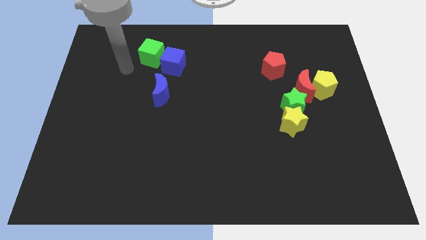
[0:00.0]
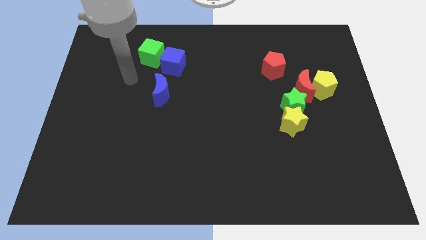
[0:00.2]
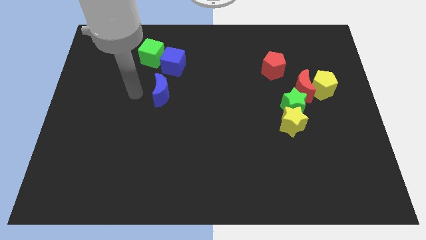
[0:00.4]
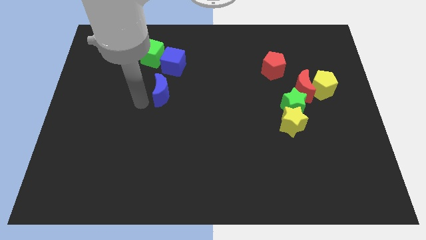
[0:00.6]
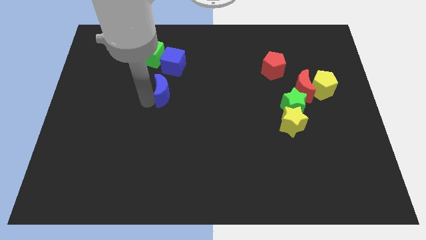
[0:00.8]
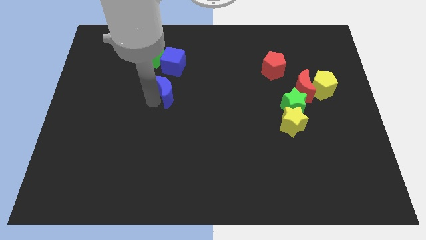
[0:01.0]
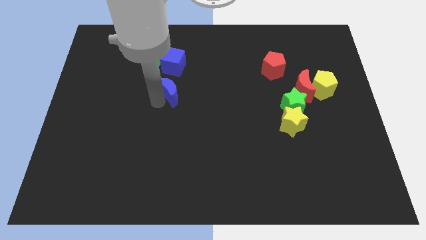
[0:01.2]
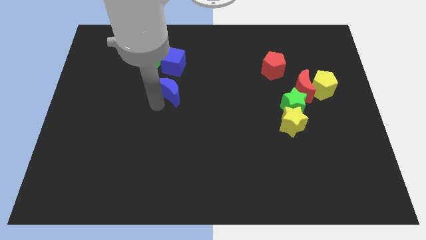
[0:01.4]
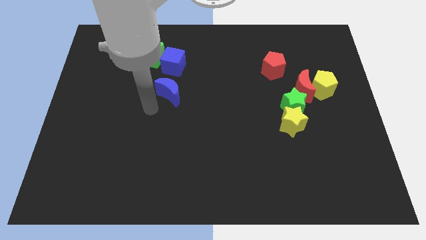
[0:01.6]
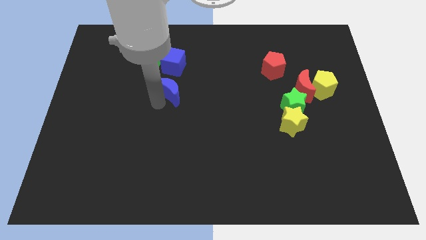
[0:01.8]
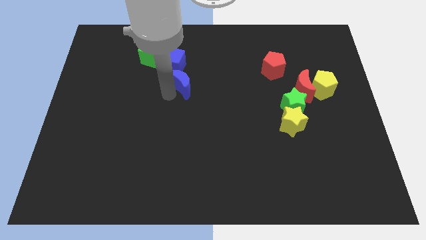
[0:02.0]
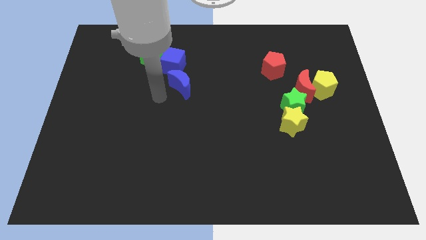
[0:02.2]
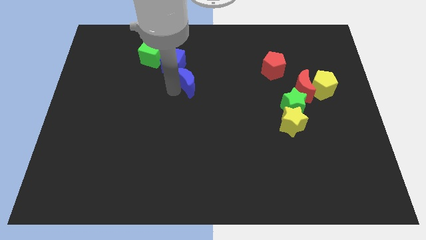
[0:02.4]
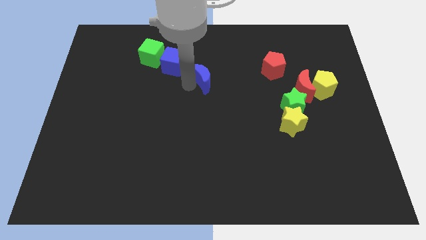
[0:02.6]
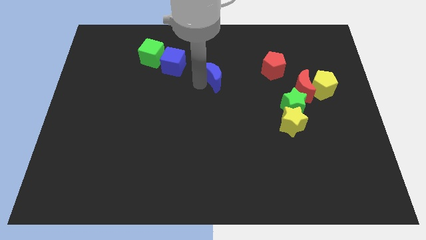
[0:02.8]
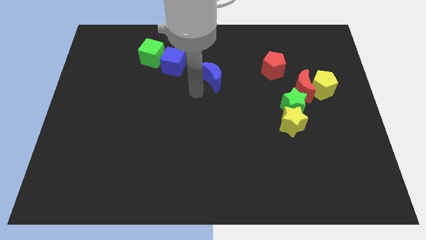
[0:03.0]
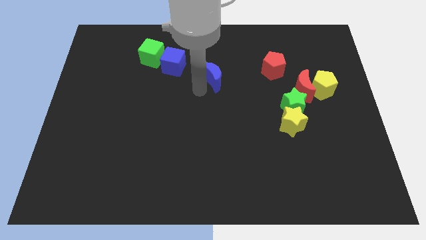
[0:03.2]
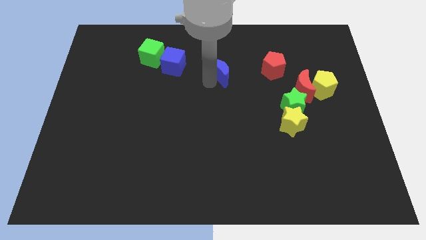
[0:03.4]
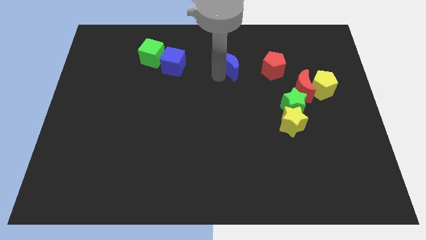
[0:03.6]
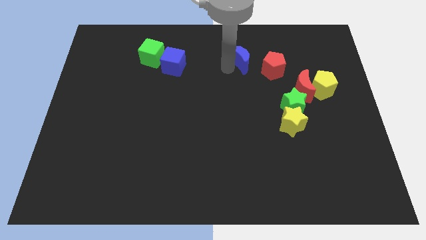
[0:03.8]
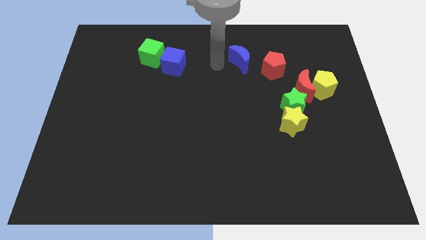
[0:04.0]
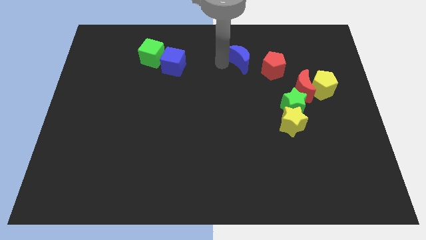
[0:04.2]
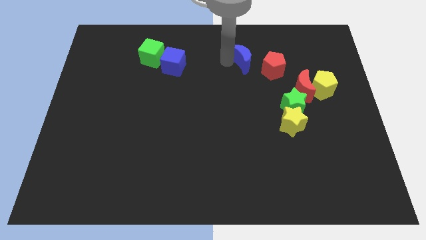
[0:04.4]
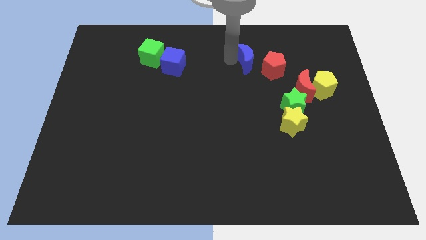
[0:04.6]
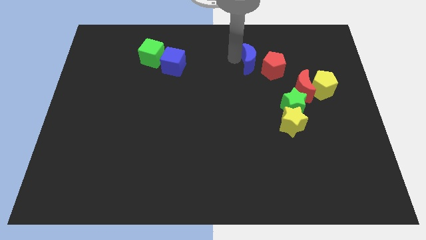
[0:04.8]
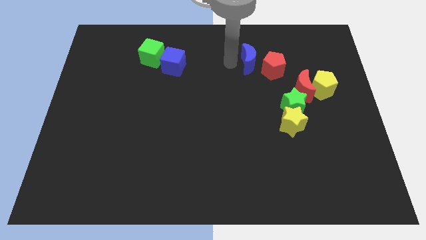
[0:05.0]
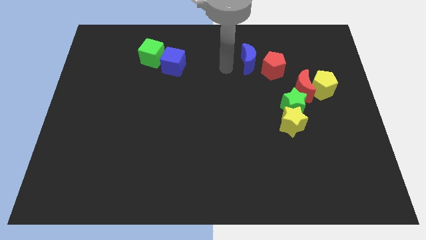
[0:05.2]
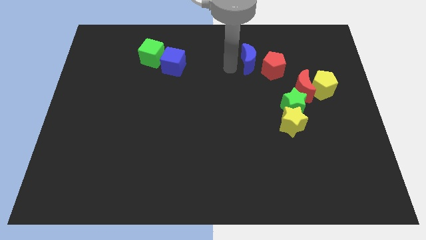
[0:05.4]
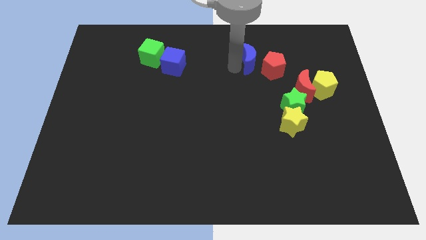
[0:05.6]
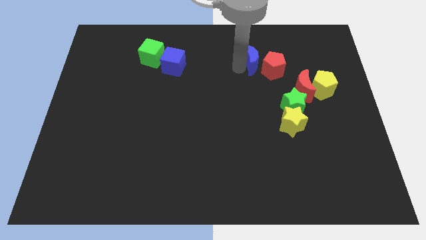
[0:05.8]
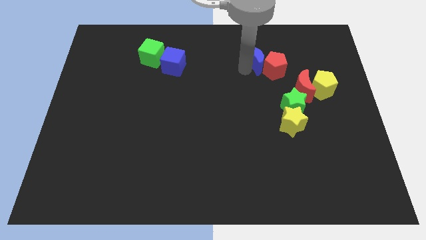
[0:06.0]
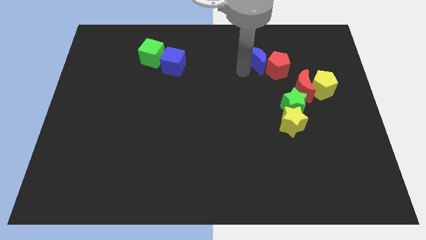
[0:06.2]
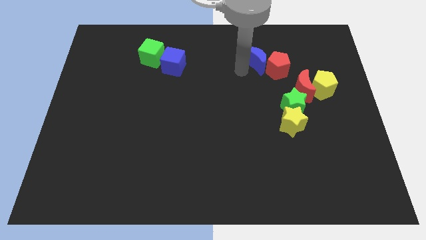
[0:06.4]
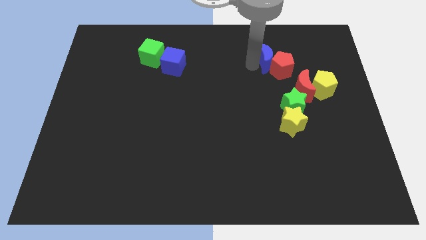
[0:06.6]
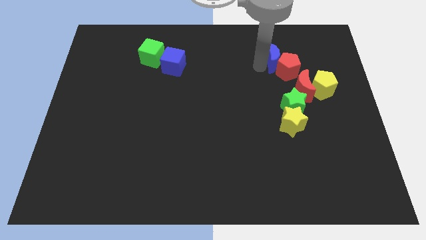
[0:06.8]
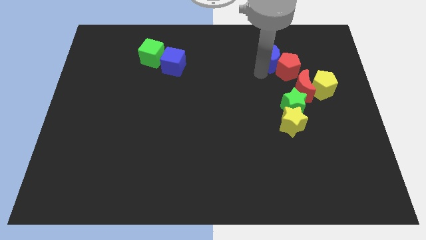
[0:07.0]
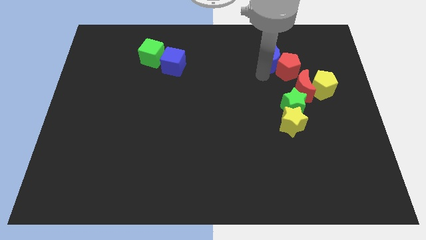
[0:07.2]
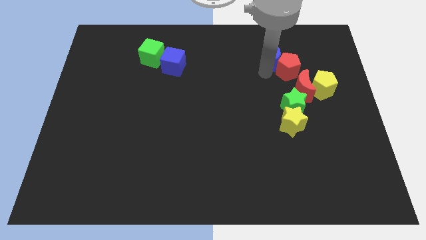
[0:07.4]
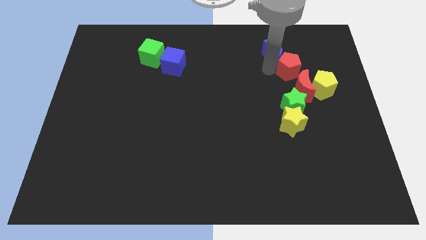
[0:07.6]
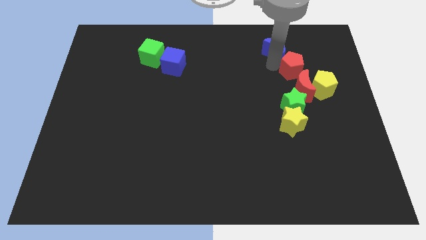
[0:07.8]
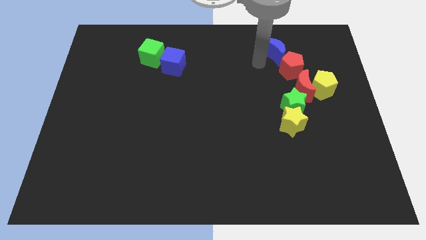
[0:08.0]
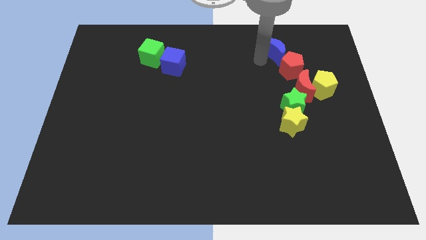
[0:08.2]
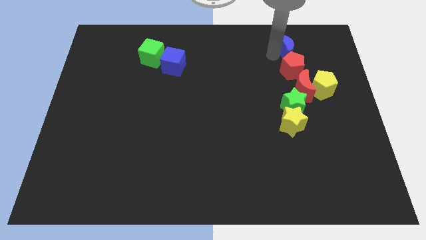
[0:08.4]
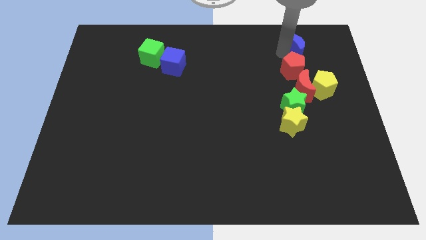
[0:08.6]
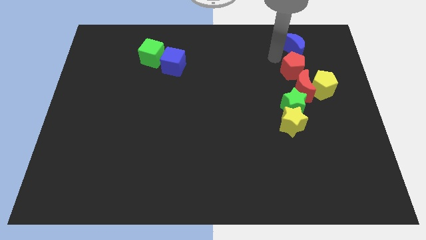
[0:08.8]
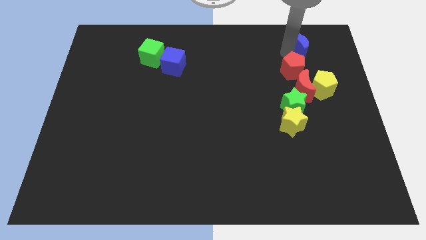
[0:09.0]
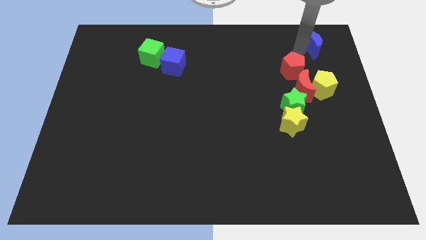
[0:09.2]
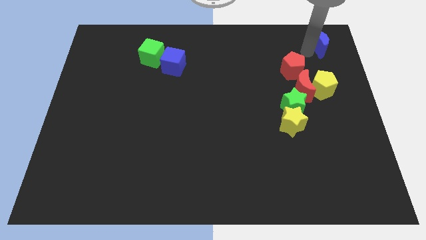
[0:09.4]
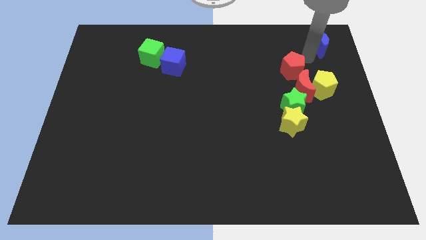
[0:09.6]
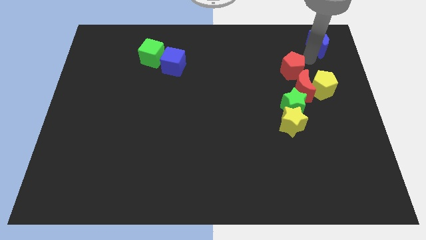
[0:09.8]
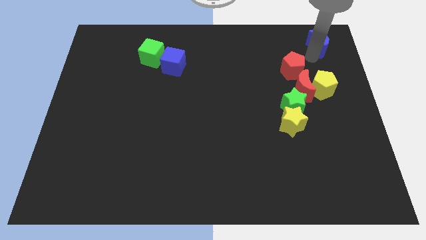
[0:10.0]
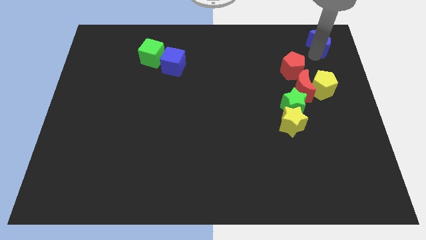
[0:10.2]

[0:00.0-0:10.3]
put the blue moon to the upper right corner

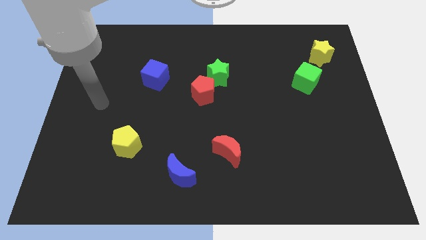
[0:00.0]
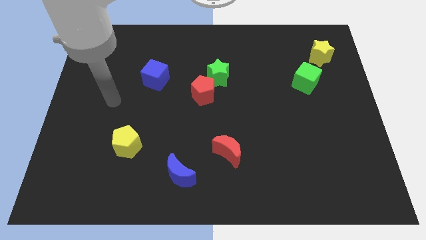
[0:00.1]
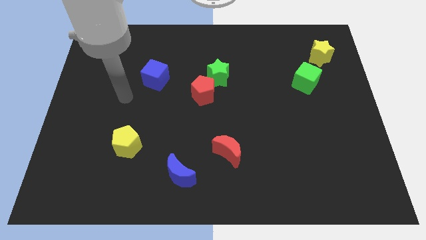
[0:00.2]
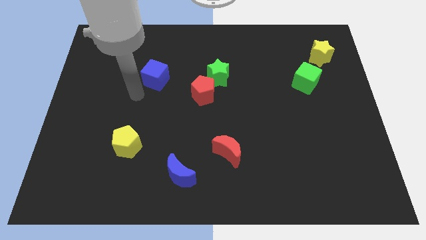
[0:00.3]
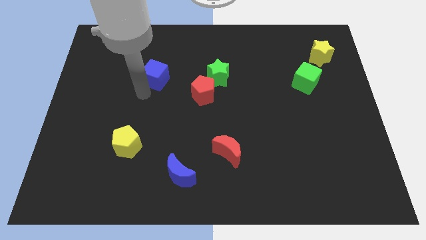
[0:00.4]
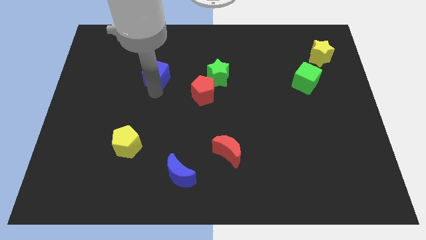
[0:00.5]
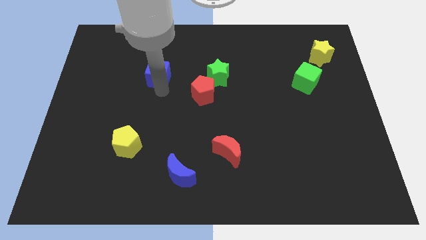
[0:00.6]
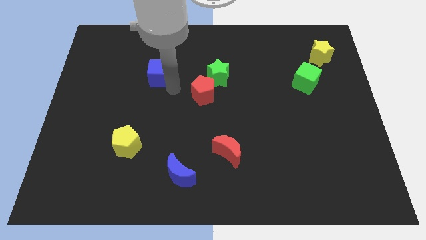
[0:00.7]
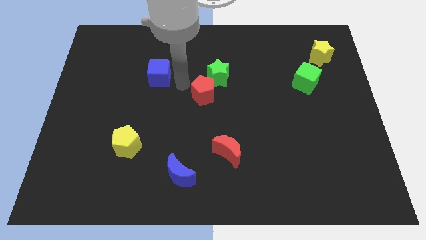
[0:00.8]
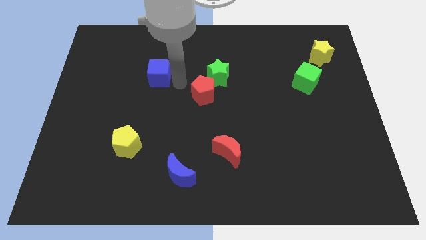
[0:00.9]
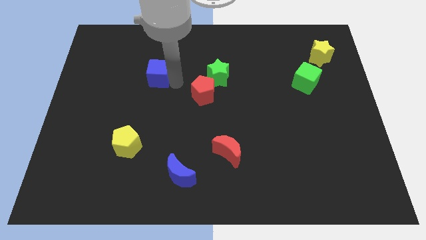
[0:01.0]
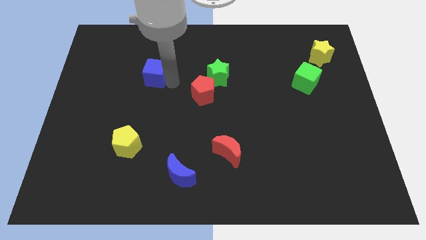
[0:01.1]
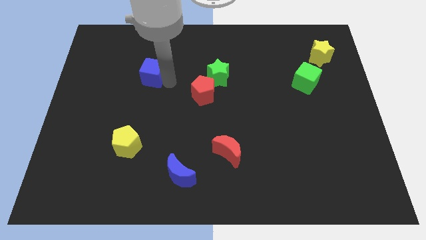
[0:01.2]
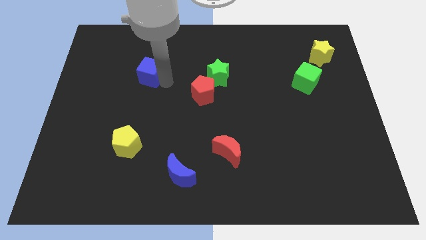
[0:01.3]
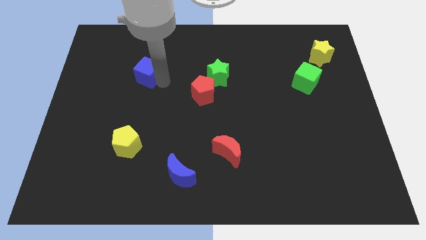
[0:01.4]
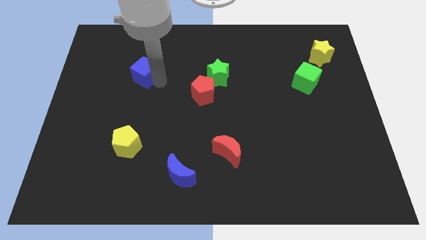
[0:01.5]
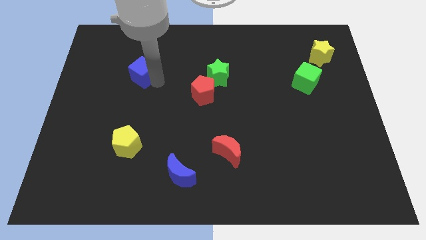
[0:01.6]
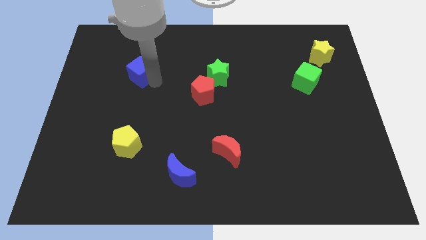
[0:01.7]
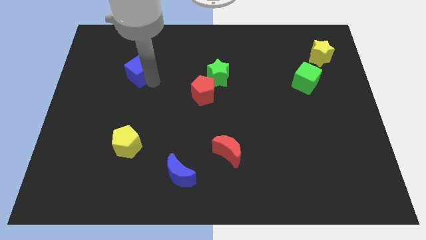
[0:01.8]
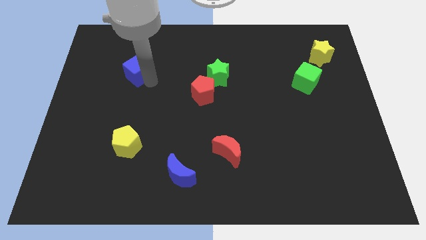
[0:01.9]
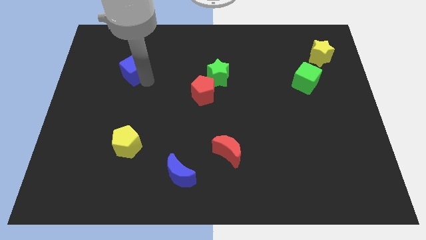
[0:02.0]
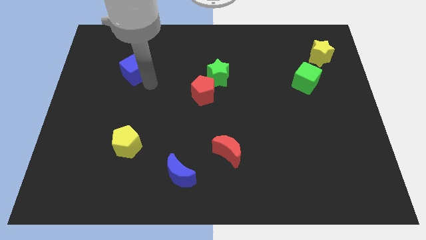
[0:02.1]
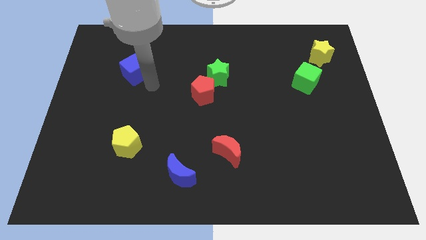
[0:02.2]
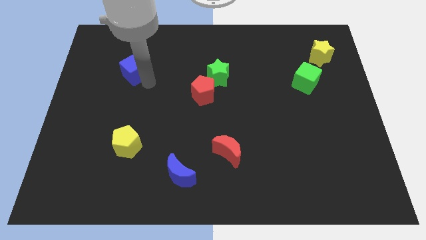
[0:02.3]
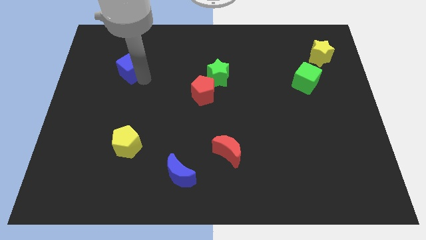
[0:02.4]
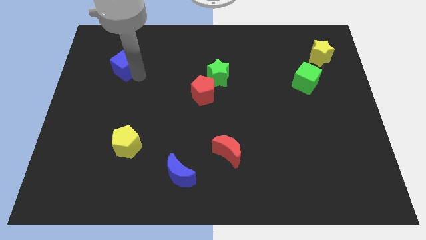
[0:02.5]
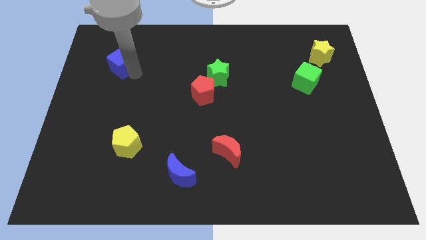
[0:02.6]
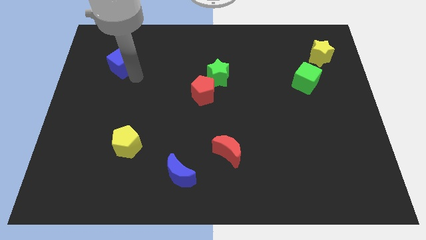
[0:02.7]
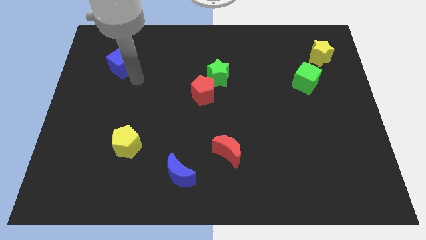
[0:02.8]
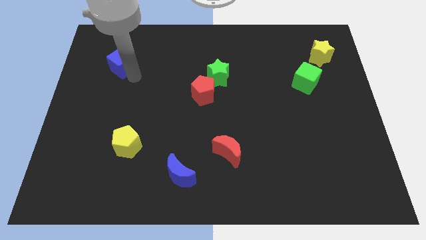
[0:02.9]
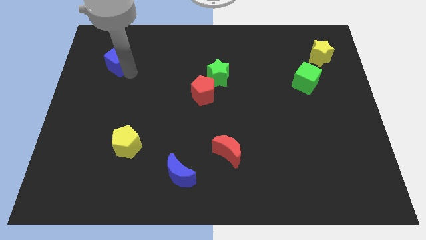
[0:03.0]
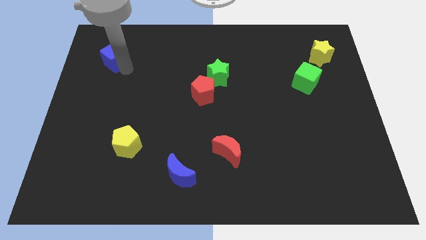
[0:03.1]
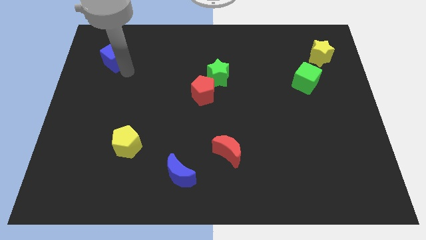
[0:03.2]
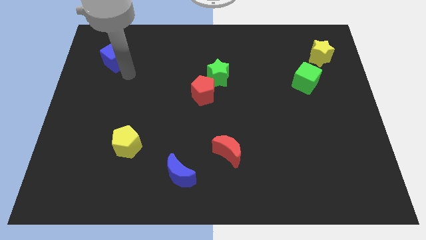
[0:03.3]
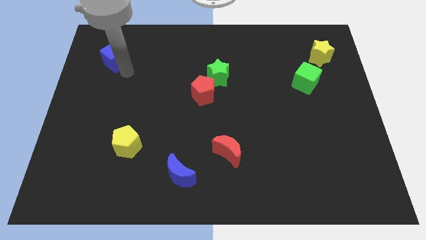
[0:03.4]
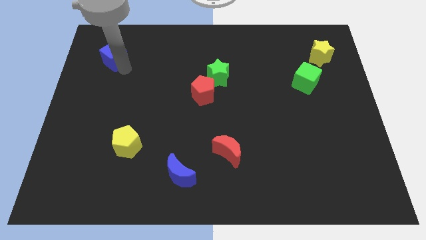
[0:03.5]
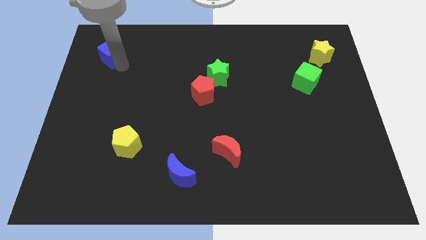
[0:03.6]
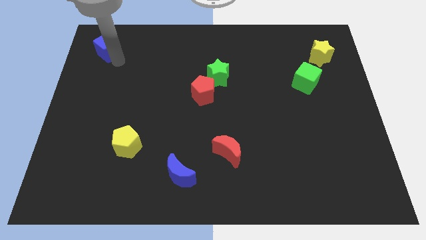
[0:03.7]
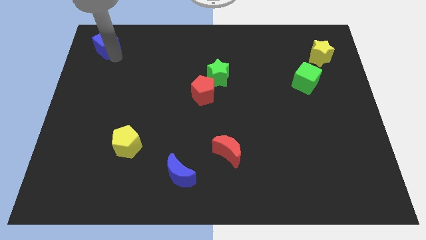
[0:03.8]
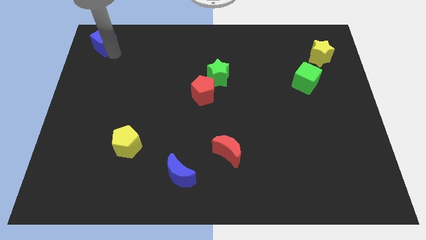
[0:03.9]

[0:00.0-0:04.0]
push the blue cube to the top left
